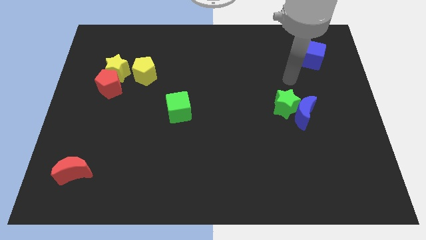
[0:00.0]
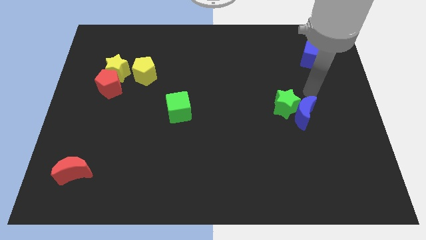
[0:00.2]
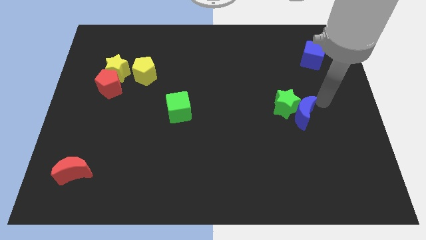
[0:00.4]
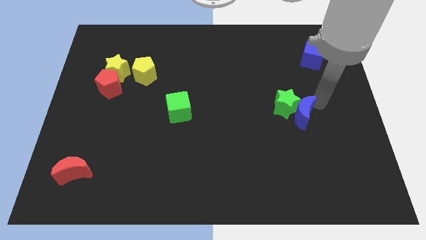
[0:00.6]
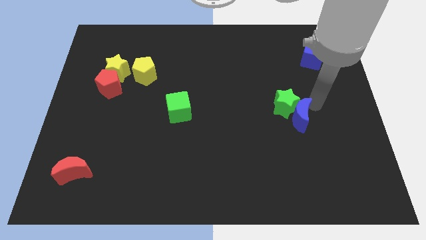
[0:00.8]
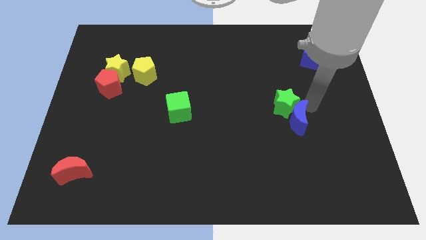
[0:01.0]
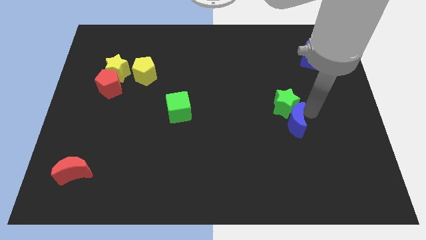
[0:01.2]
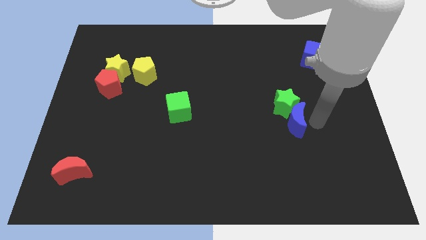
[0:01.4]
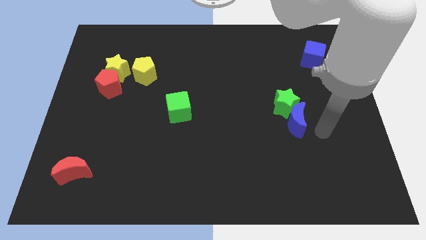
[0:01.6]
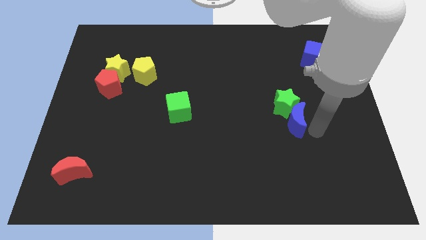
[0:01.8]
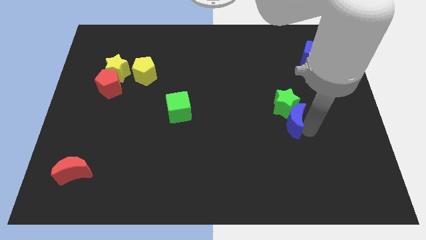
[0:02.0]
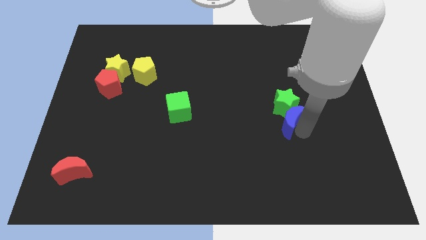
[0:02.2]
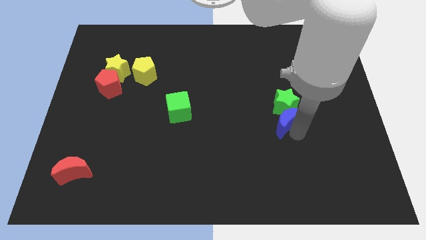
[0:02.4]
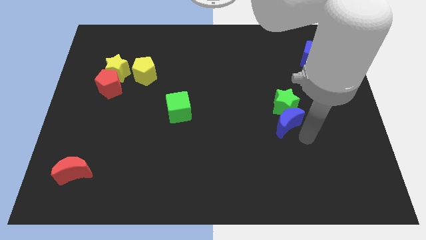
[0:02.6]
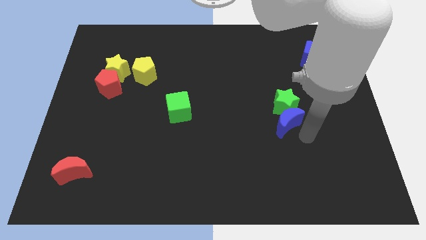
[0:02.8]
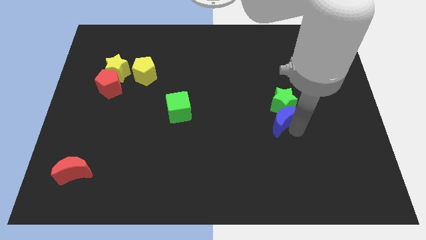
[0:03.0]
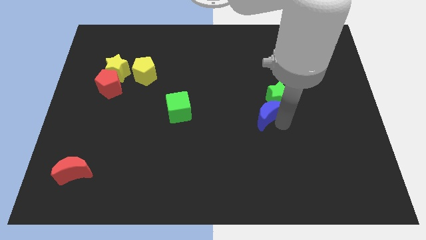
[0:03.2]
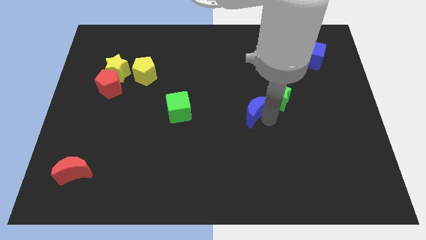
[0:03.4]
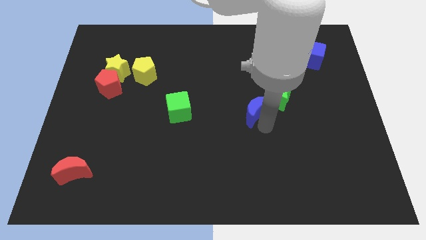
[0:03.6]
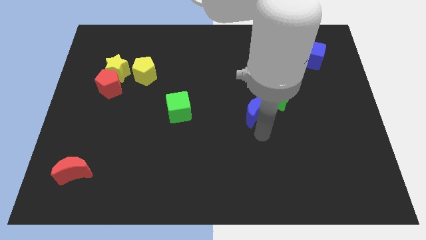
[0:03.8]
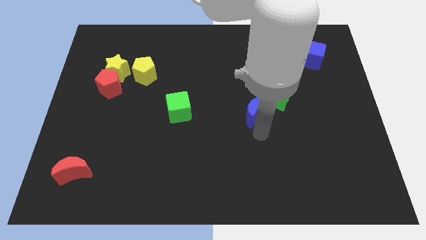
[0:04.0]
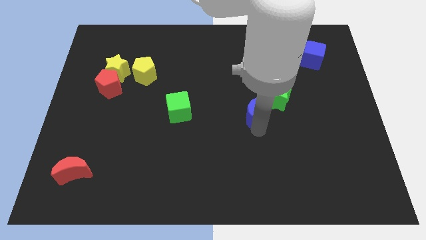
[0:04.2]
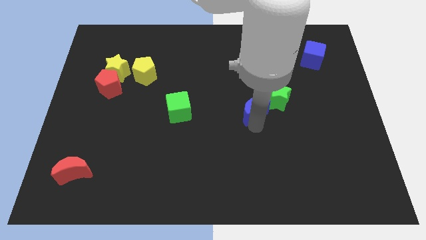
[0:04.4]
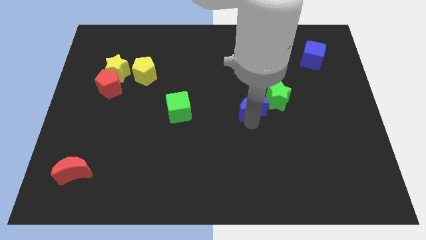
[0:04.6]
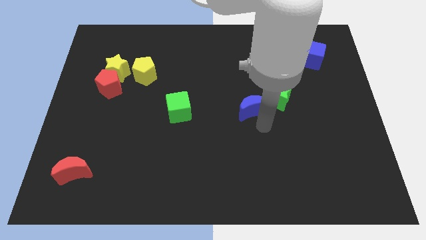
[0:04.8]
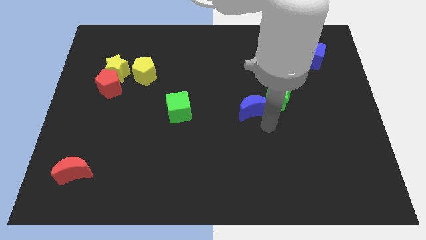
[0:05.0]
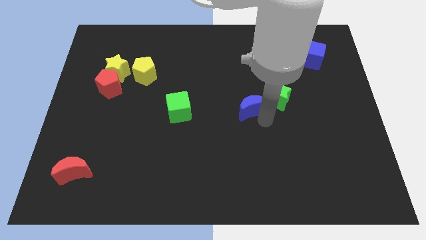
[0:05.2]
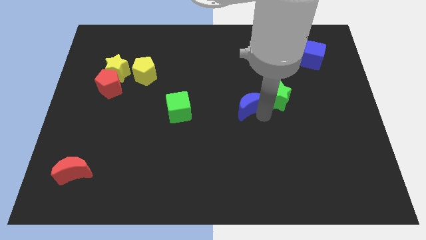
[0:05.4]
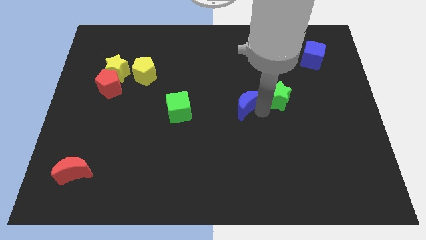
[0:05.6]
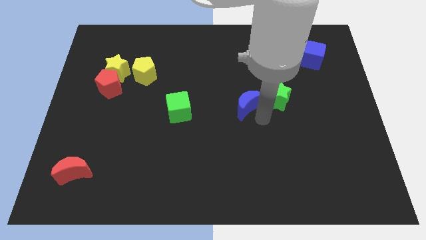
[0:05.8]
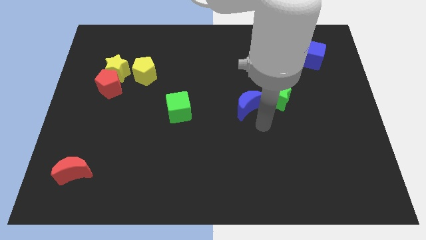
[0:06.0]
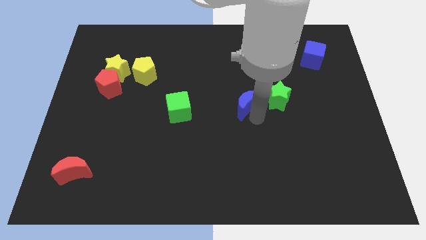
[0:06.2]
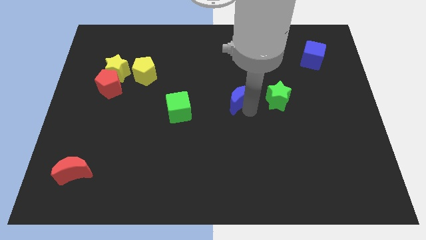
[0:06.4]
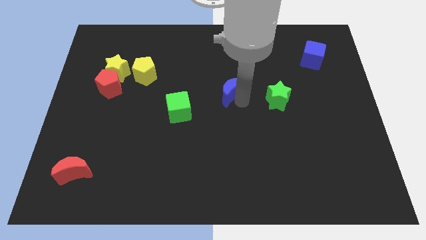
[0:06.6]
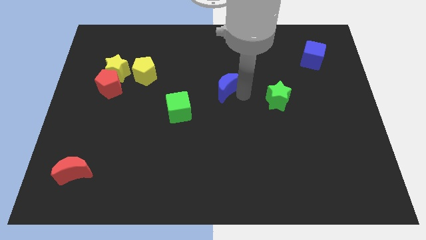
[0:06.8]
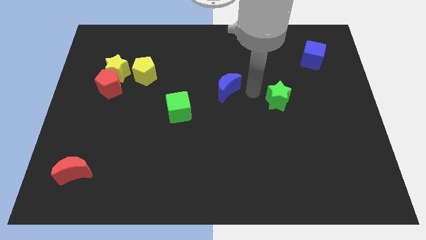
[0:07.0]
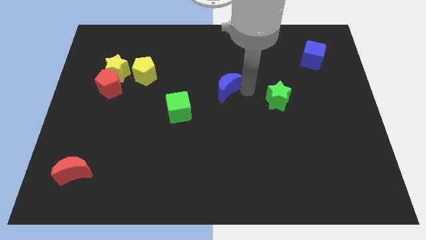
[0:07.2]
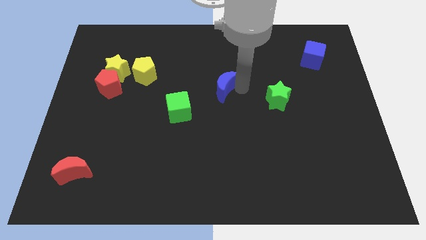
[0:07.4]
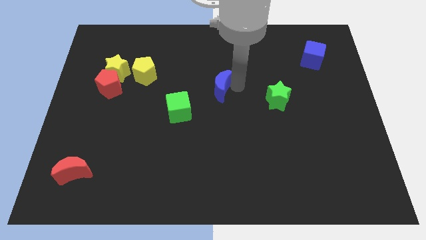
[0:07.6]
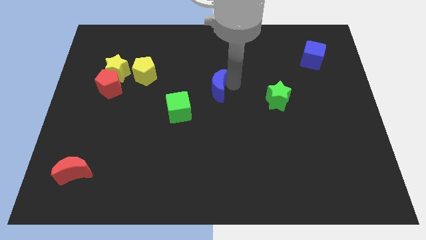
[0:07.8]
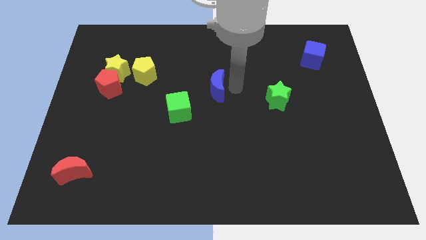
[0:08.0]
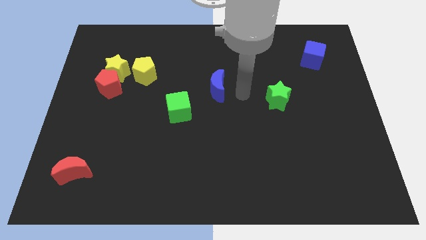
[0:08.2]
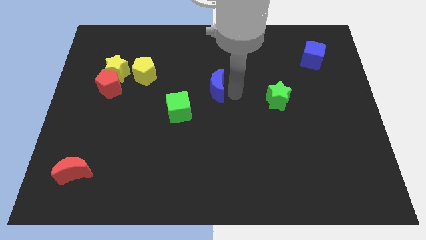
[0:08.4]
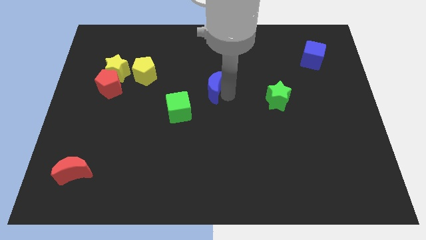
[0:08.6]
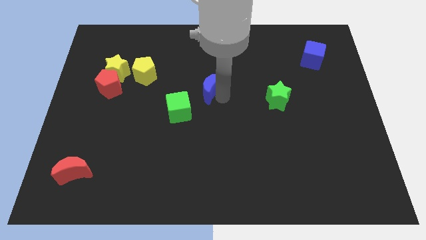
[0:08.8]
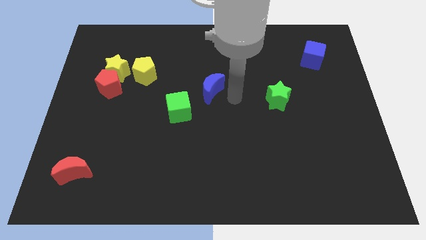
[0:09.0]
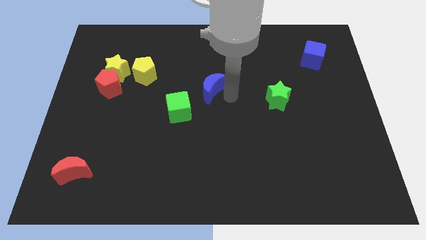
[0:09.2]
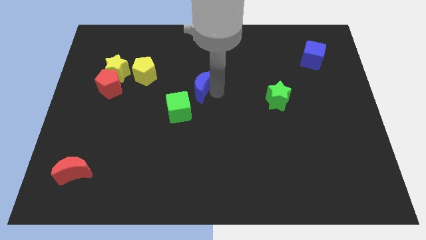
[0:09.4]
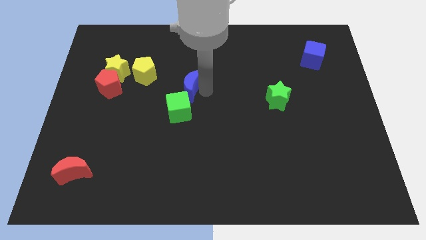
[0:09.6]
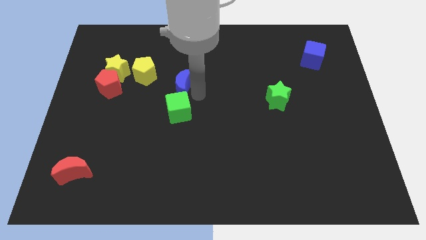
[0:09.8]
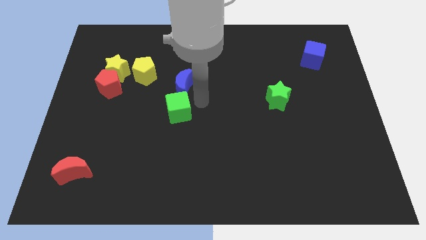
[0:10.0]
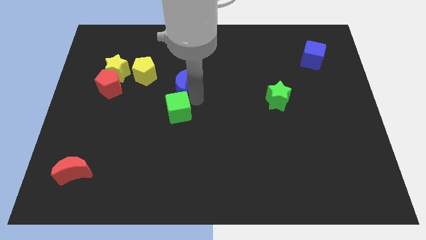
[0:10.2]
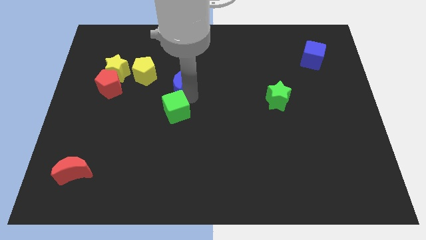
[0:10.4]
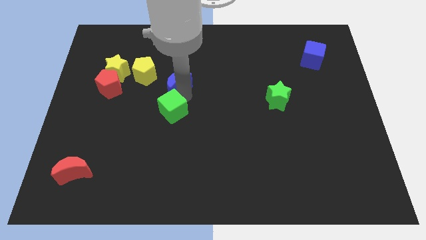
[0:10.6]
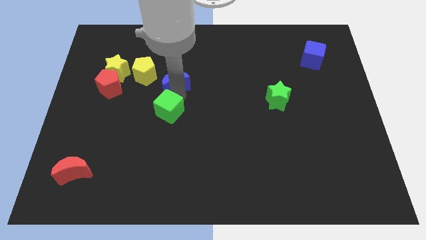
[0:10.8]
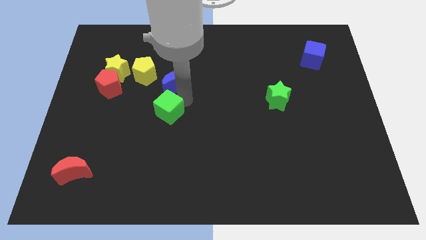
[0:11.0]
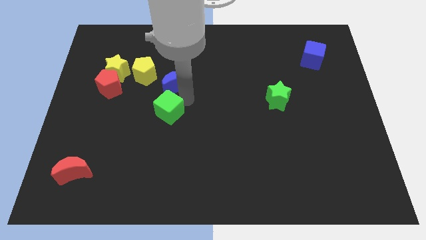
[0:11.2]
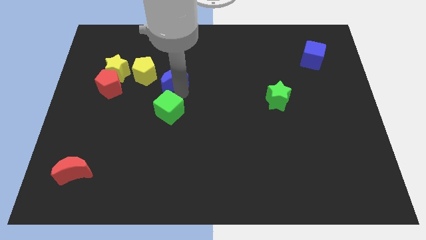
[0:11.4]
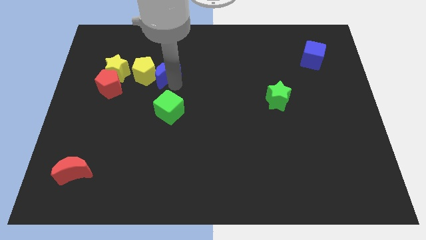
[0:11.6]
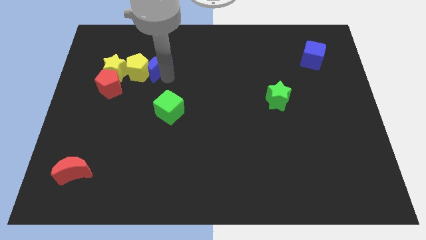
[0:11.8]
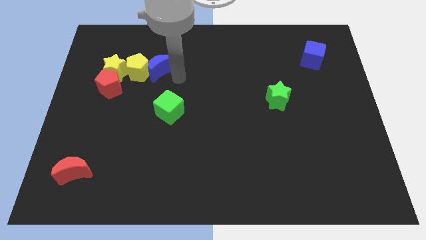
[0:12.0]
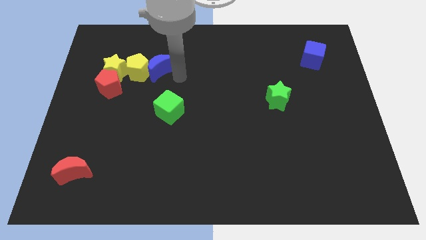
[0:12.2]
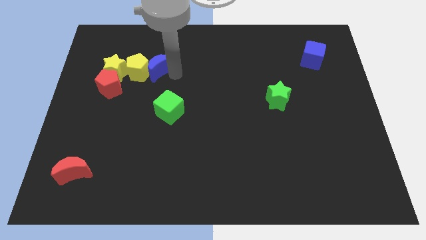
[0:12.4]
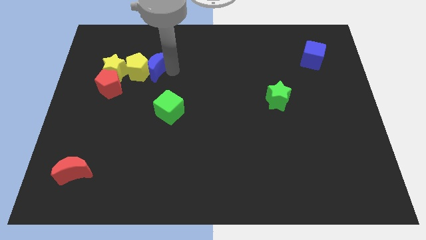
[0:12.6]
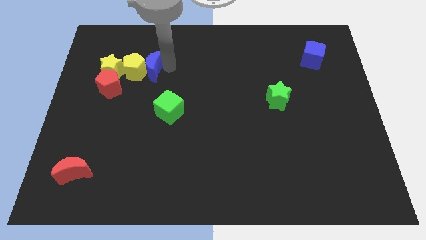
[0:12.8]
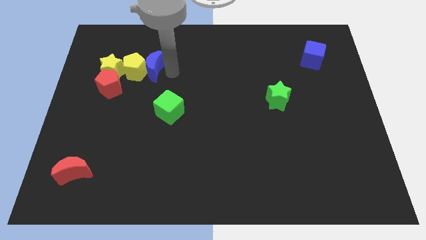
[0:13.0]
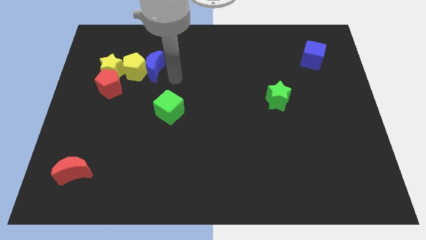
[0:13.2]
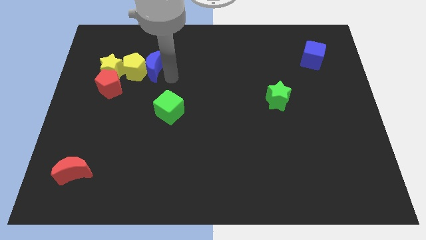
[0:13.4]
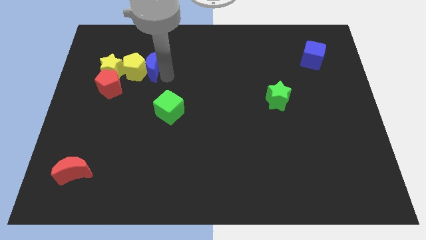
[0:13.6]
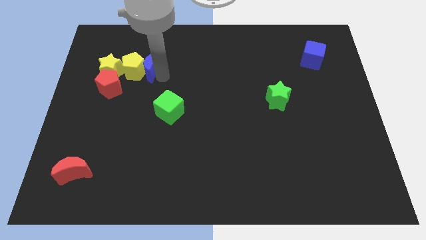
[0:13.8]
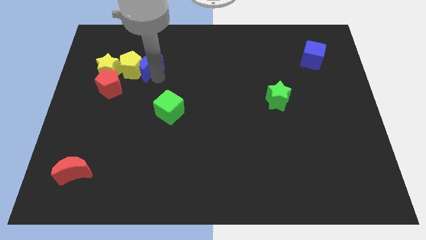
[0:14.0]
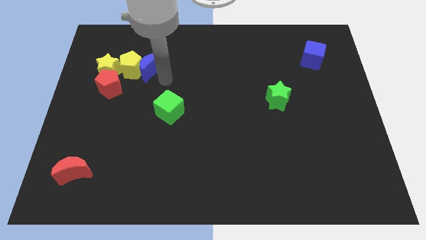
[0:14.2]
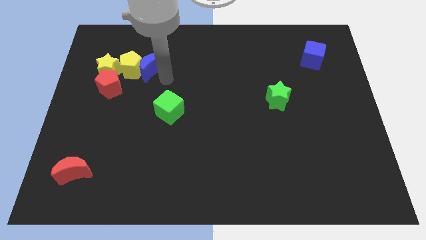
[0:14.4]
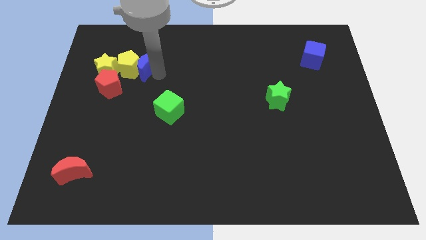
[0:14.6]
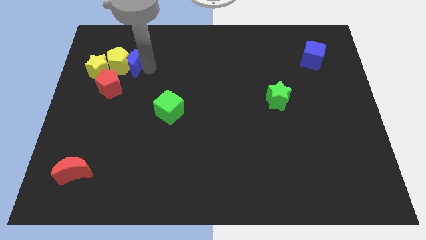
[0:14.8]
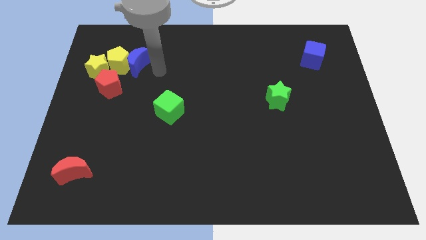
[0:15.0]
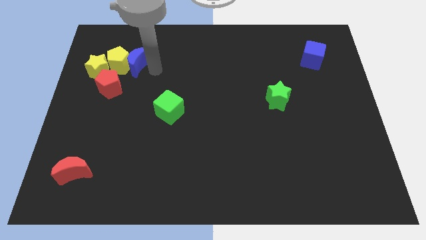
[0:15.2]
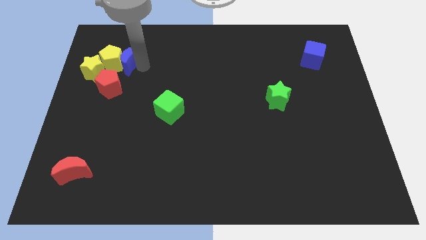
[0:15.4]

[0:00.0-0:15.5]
slide the blue moon to the top side of the red pentagon
